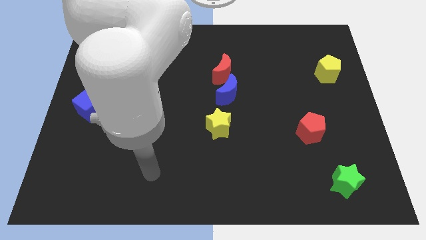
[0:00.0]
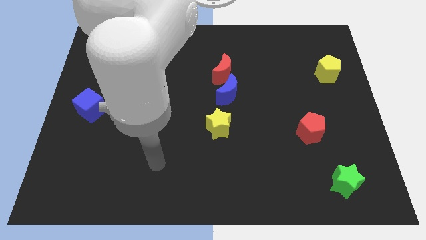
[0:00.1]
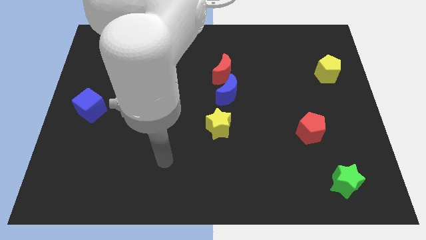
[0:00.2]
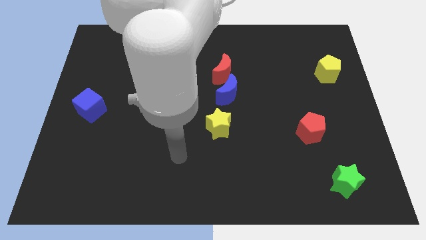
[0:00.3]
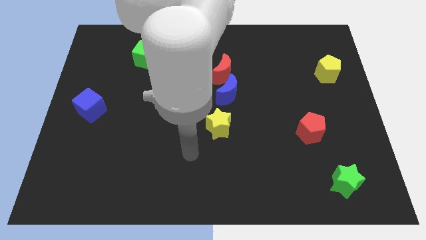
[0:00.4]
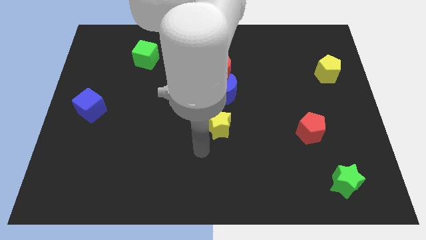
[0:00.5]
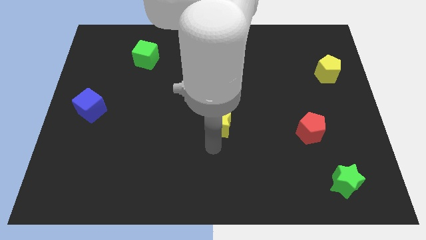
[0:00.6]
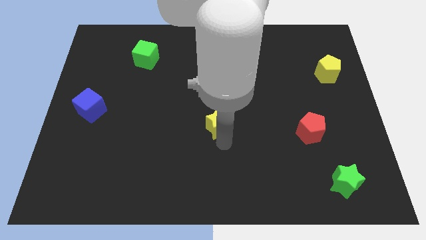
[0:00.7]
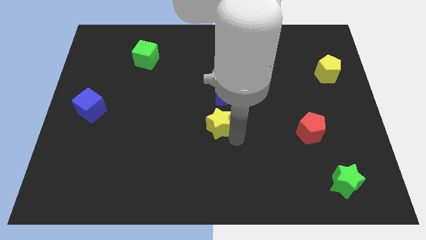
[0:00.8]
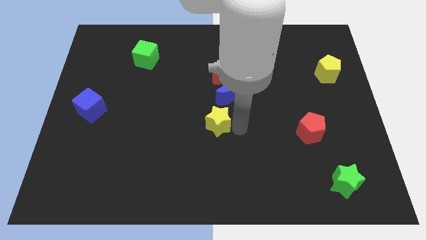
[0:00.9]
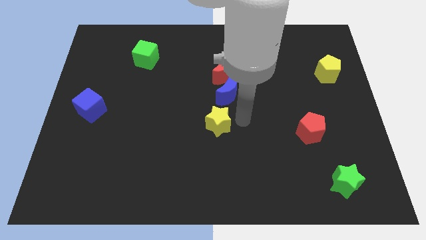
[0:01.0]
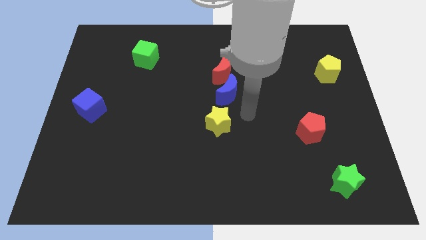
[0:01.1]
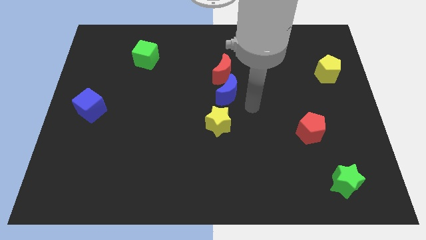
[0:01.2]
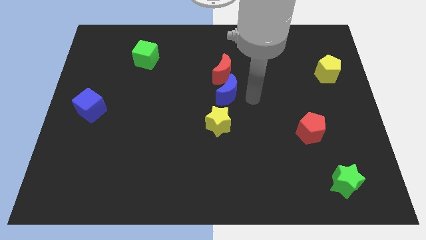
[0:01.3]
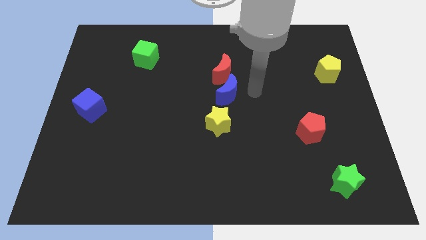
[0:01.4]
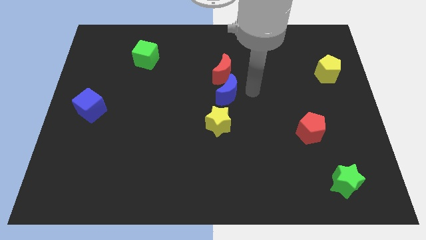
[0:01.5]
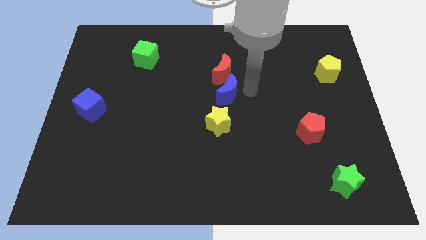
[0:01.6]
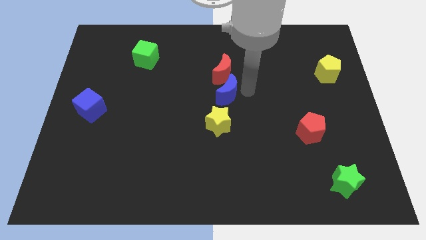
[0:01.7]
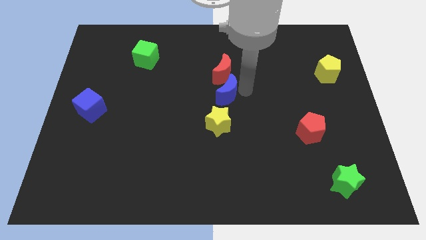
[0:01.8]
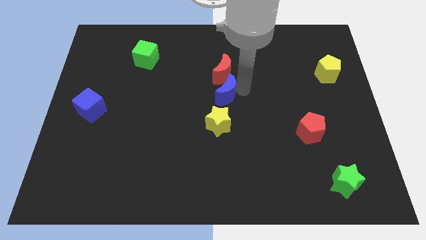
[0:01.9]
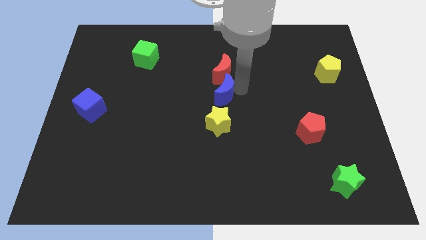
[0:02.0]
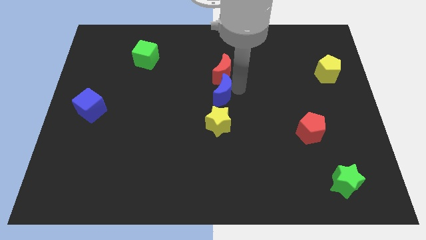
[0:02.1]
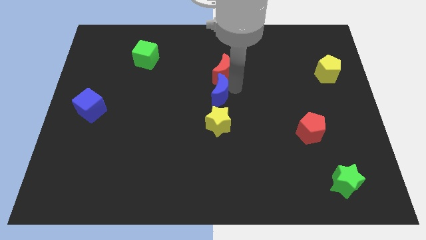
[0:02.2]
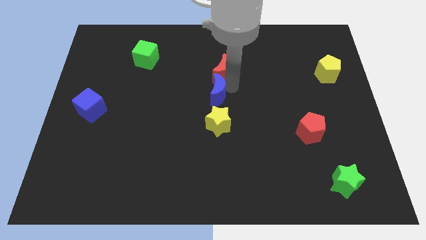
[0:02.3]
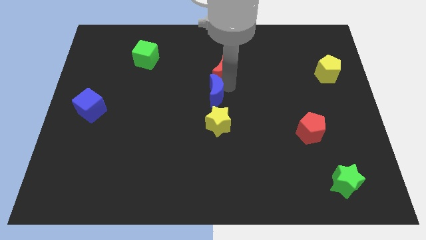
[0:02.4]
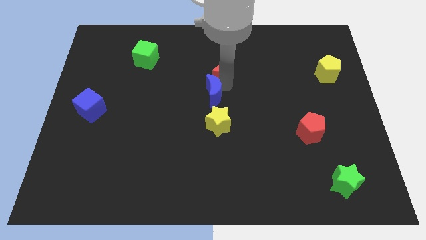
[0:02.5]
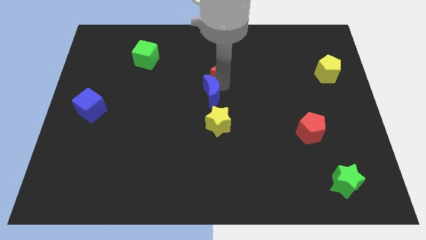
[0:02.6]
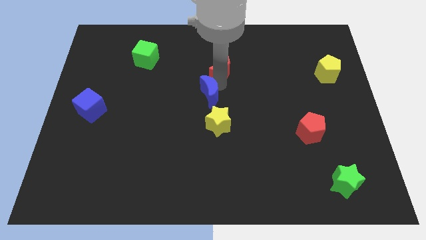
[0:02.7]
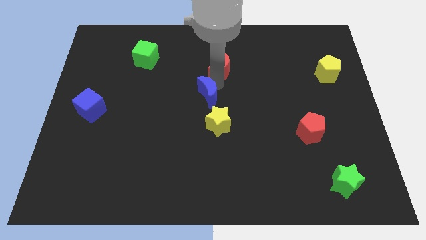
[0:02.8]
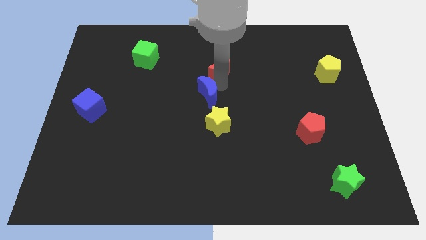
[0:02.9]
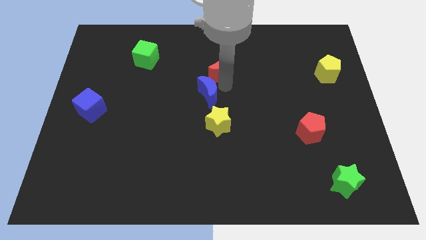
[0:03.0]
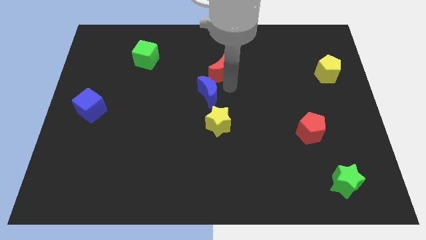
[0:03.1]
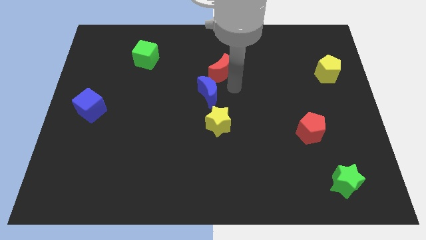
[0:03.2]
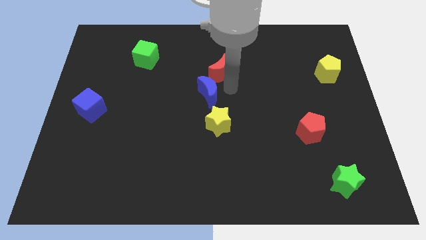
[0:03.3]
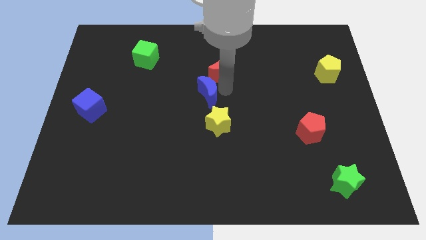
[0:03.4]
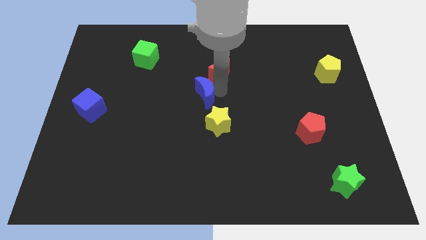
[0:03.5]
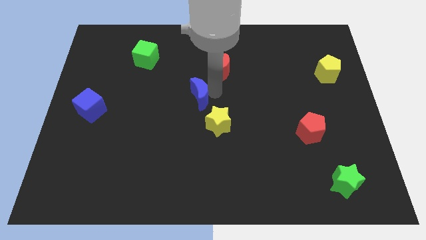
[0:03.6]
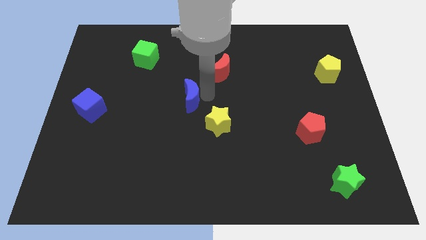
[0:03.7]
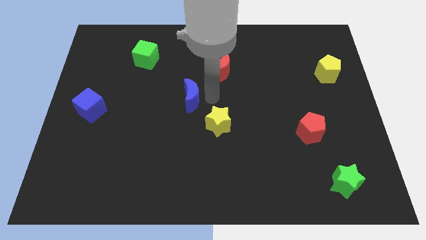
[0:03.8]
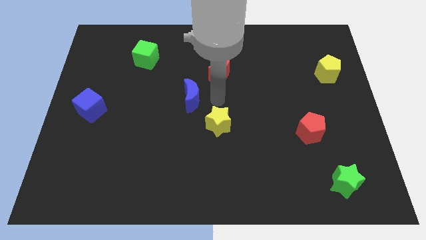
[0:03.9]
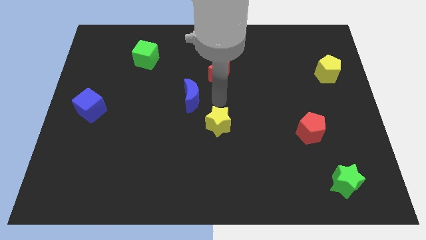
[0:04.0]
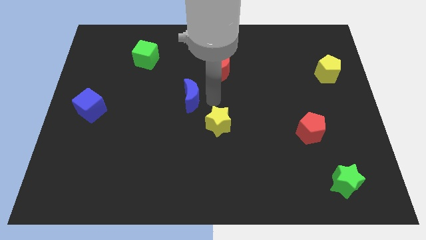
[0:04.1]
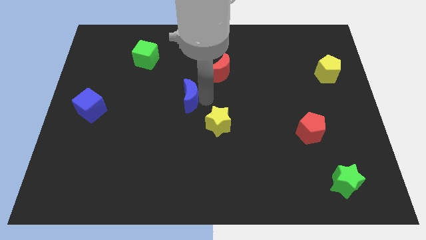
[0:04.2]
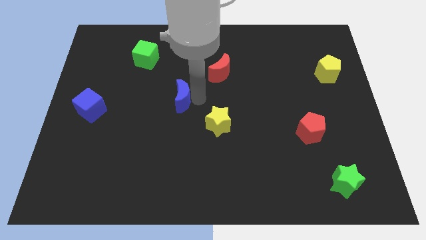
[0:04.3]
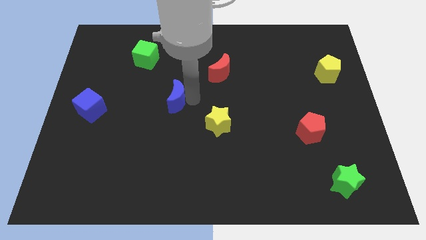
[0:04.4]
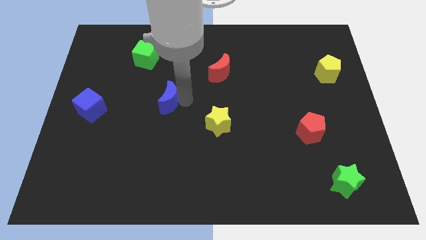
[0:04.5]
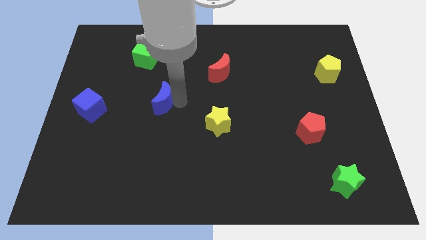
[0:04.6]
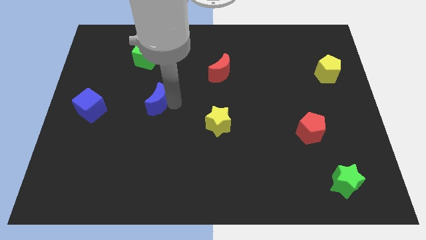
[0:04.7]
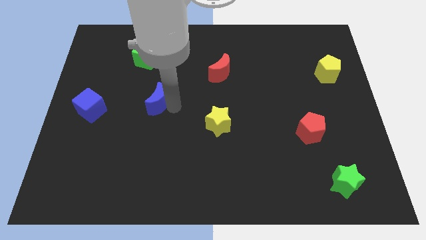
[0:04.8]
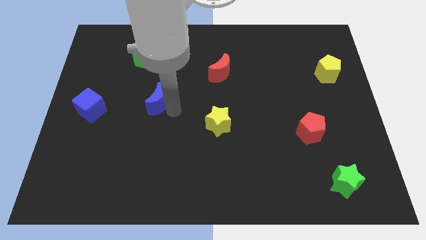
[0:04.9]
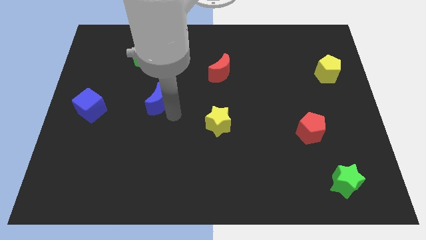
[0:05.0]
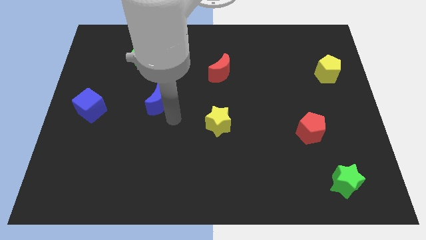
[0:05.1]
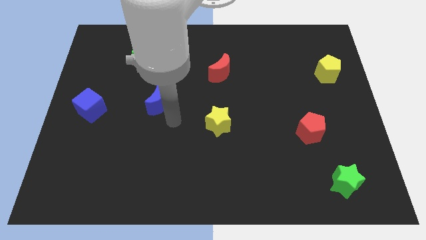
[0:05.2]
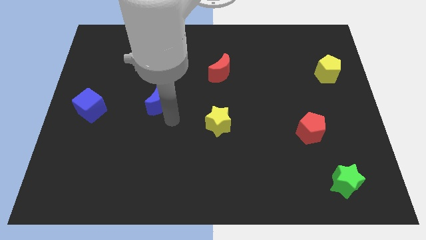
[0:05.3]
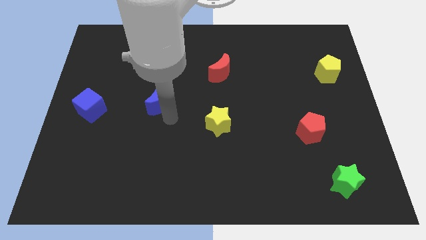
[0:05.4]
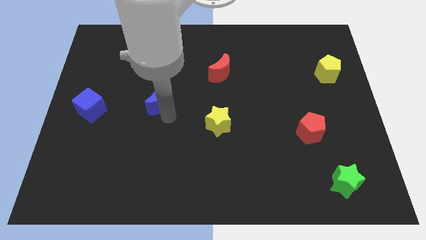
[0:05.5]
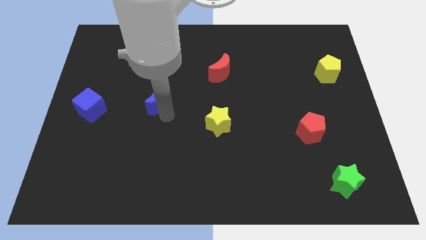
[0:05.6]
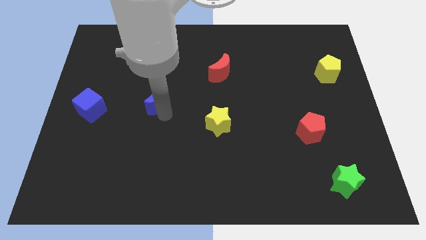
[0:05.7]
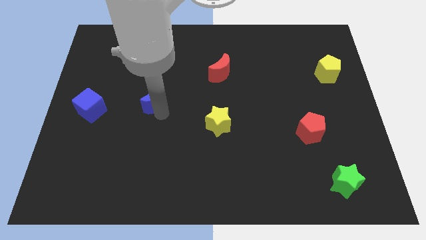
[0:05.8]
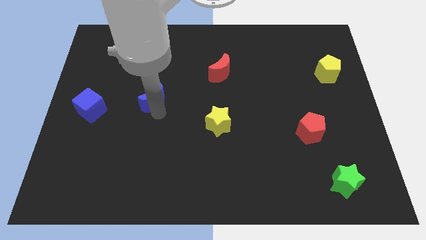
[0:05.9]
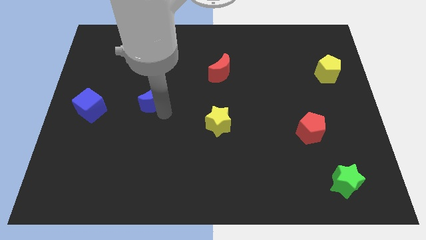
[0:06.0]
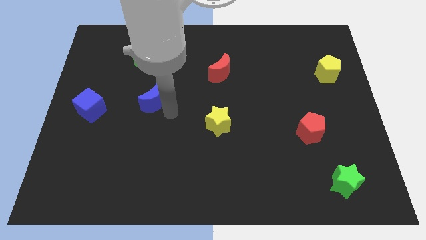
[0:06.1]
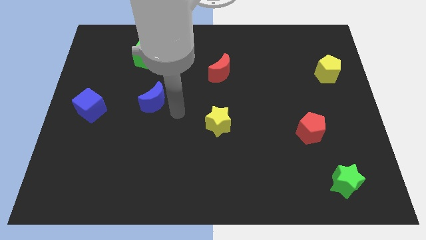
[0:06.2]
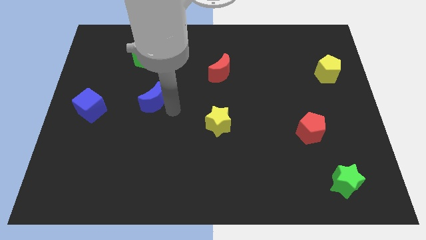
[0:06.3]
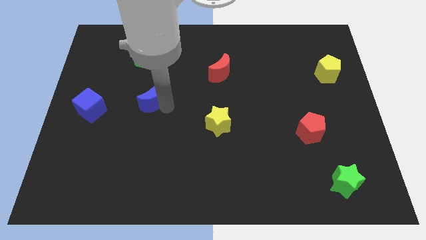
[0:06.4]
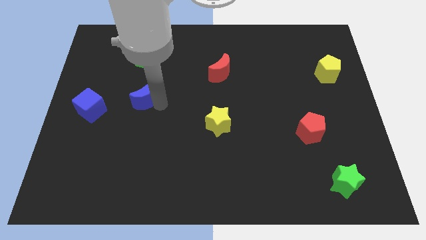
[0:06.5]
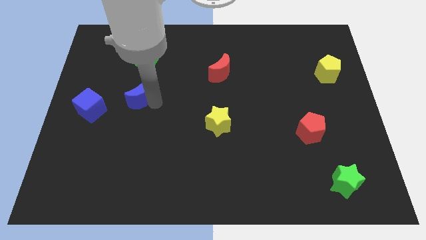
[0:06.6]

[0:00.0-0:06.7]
move the blue moon to the left

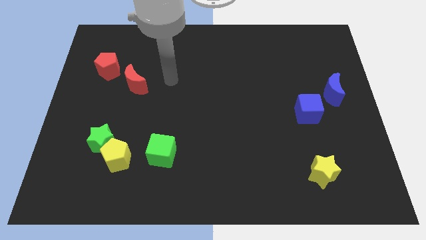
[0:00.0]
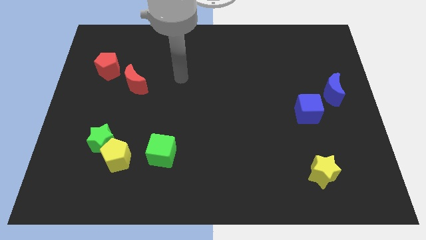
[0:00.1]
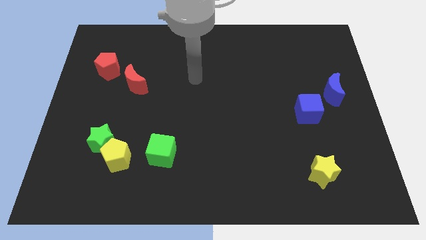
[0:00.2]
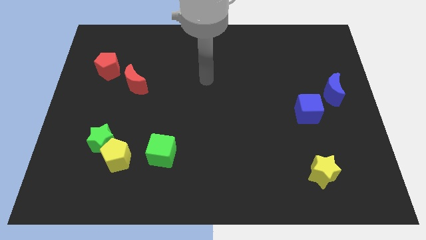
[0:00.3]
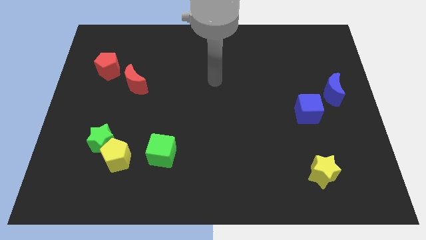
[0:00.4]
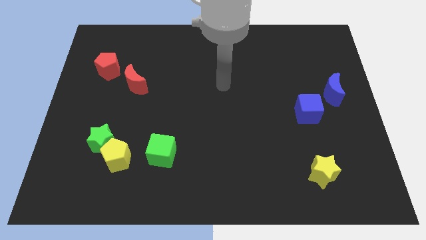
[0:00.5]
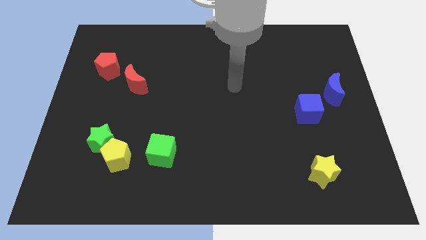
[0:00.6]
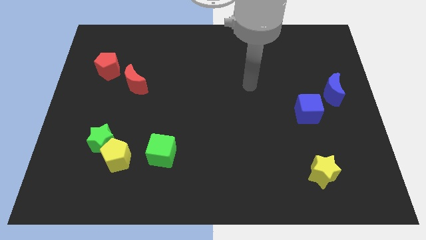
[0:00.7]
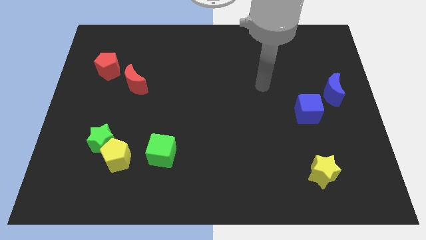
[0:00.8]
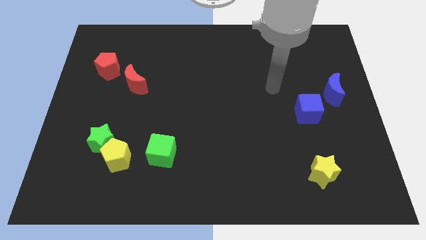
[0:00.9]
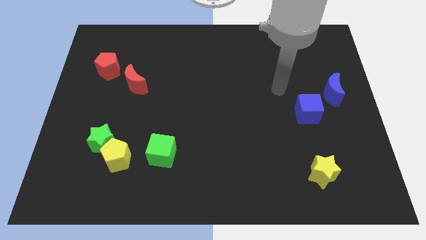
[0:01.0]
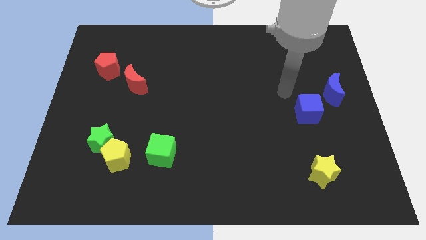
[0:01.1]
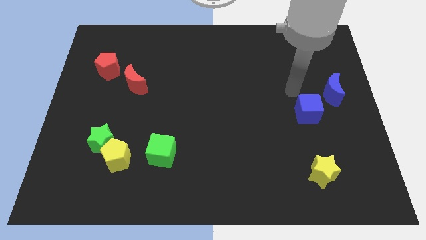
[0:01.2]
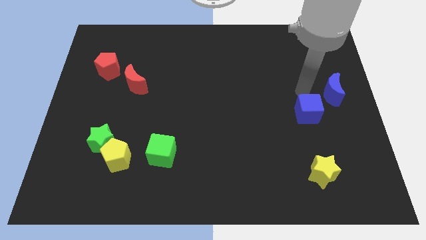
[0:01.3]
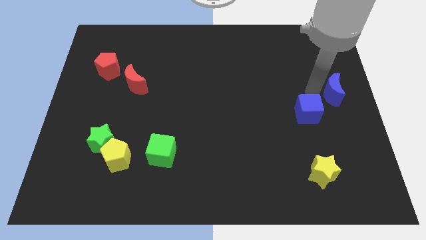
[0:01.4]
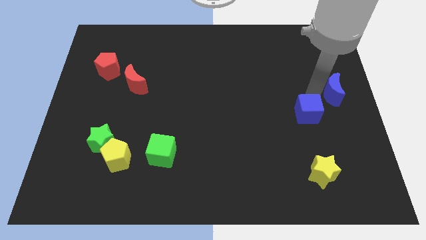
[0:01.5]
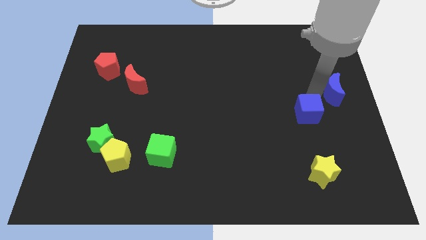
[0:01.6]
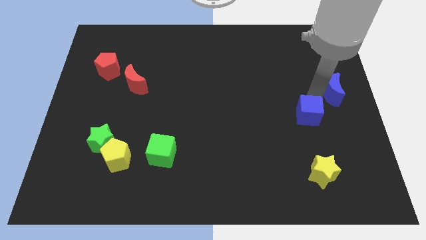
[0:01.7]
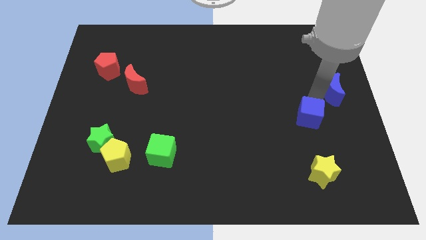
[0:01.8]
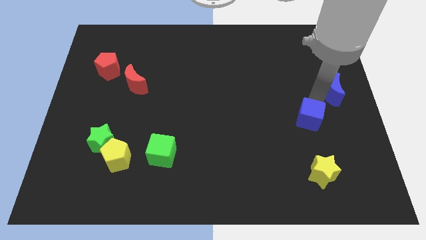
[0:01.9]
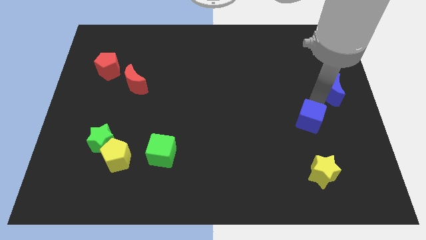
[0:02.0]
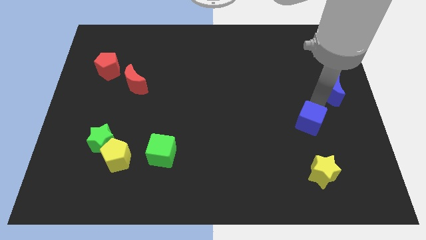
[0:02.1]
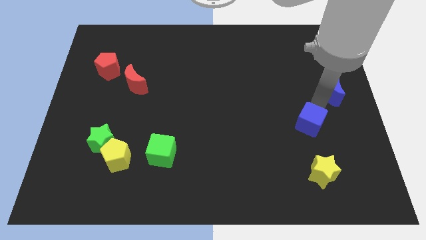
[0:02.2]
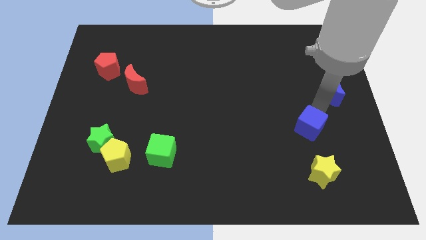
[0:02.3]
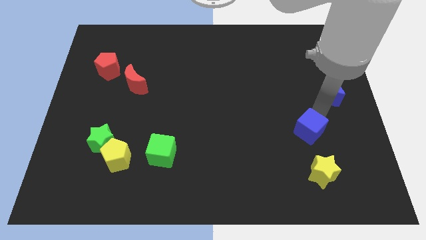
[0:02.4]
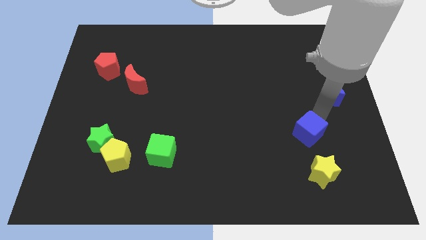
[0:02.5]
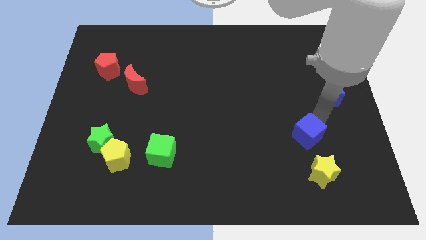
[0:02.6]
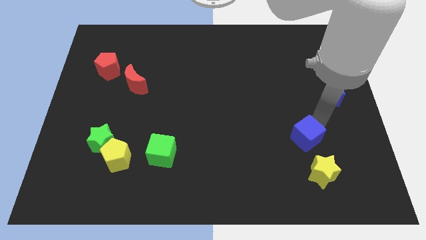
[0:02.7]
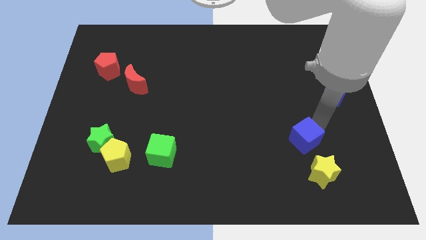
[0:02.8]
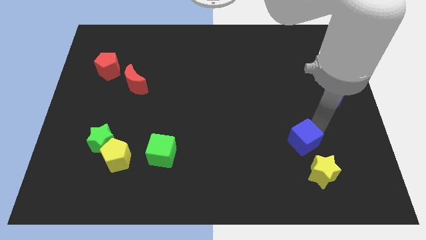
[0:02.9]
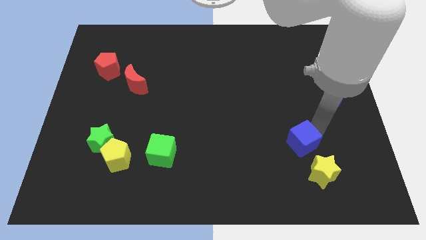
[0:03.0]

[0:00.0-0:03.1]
move the blue cube diagonally down and to the left a bit
